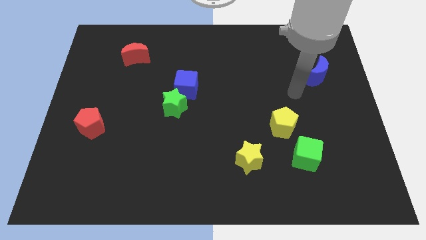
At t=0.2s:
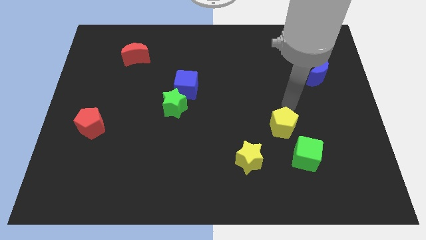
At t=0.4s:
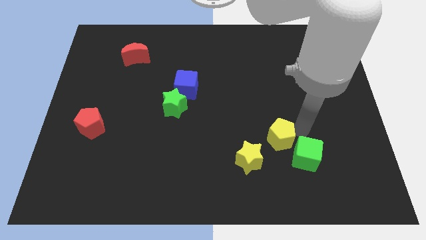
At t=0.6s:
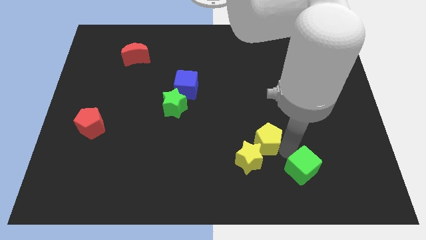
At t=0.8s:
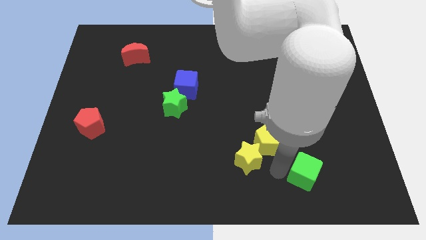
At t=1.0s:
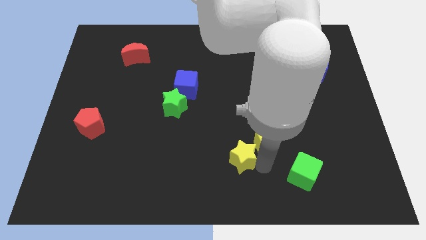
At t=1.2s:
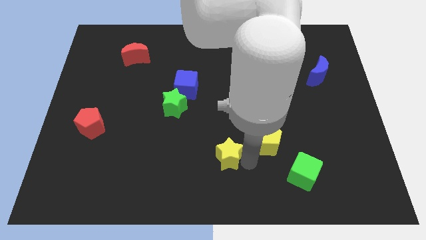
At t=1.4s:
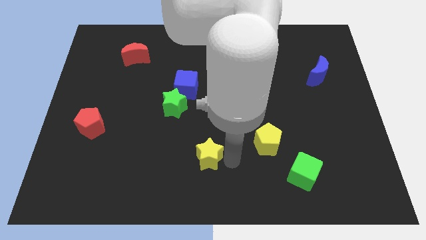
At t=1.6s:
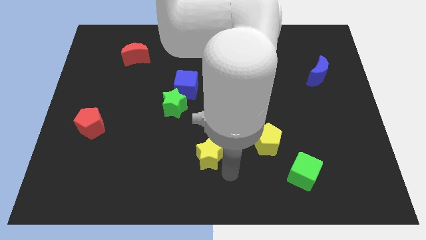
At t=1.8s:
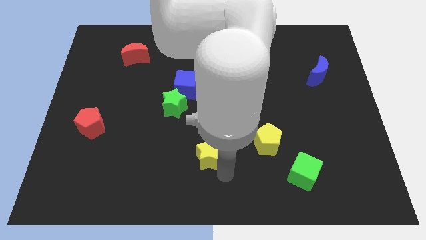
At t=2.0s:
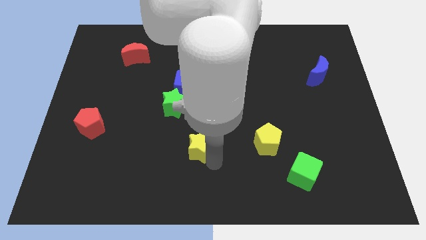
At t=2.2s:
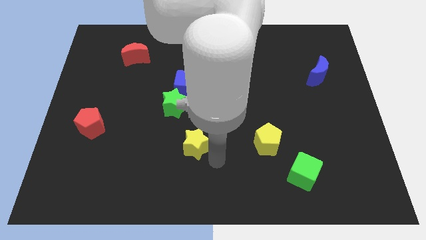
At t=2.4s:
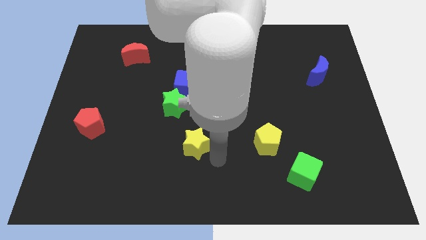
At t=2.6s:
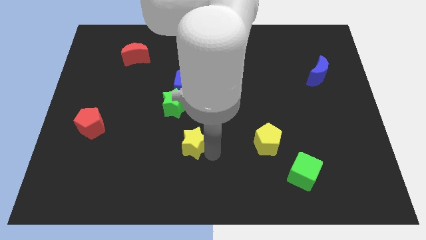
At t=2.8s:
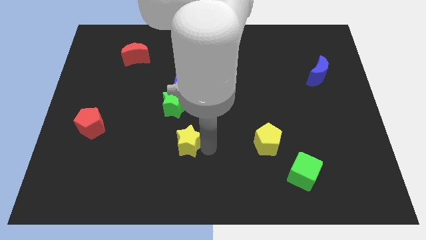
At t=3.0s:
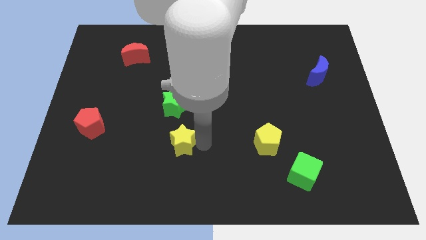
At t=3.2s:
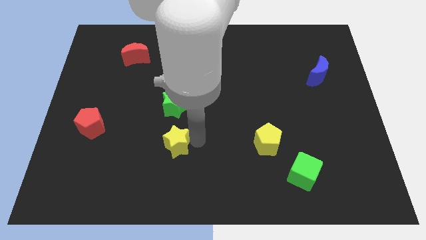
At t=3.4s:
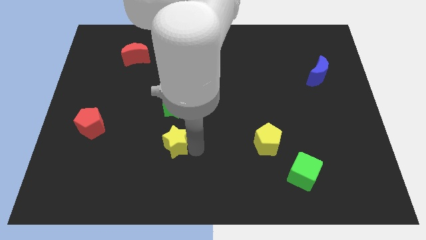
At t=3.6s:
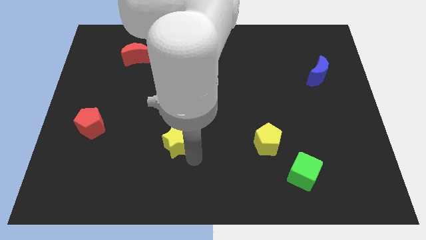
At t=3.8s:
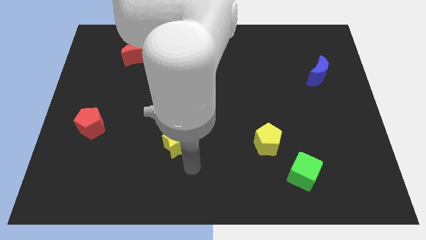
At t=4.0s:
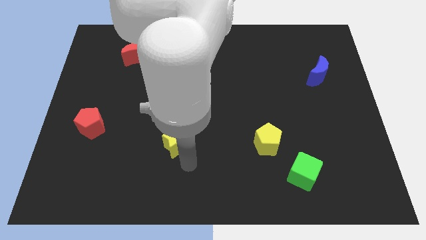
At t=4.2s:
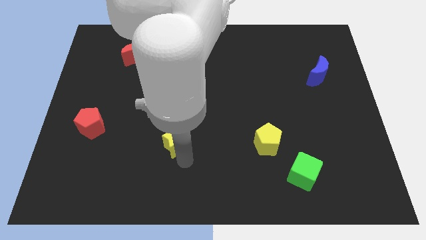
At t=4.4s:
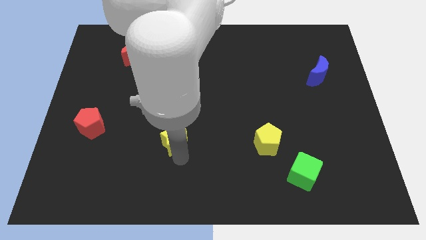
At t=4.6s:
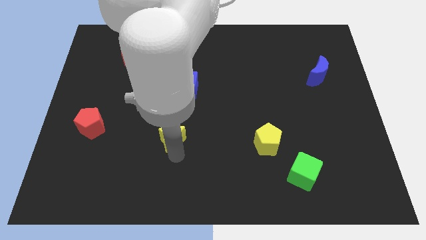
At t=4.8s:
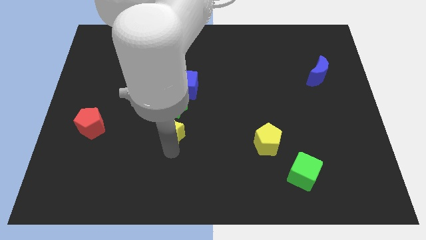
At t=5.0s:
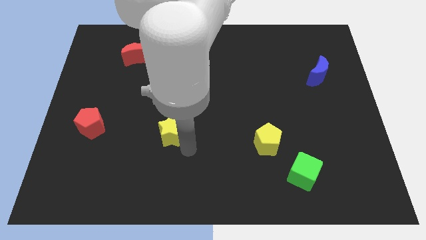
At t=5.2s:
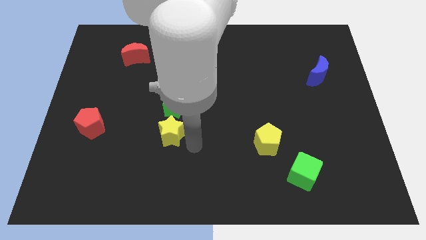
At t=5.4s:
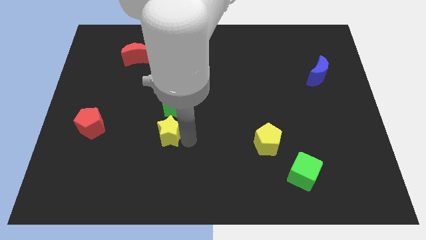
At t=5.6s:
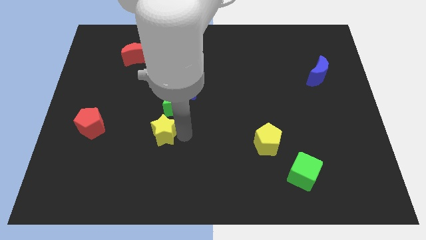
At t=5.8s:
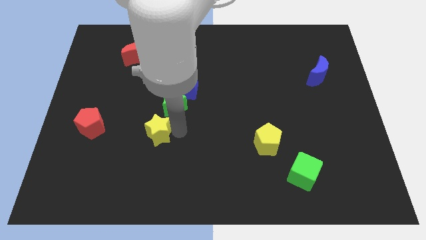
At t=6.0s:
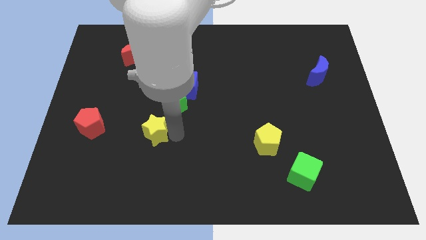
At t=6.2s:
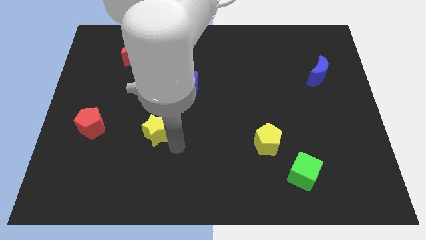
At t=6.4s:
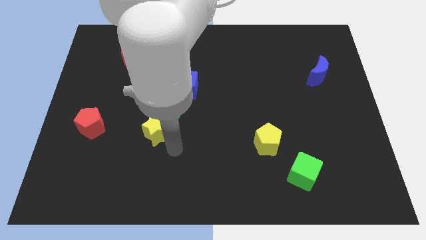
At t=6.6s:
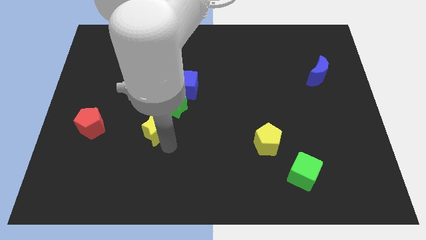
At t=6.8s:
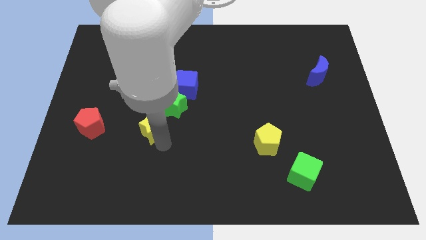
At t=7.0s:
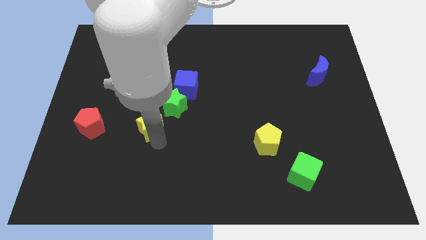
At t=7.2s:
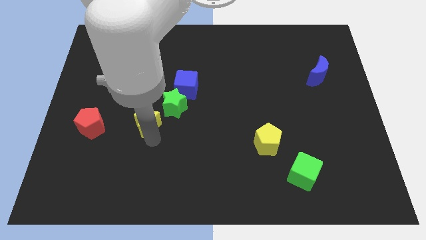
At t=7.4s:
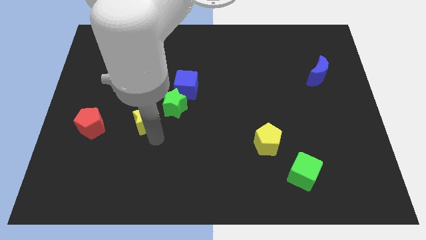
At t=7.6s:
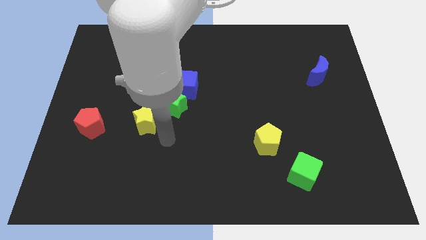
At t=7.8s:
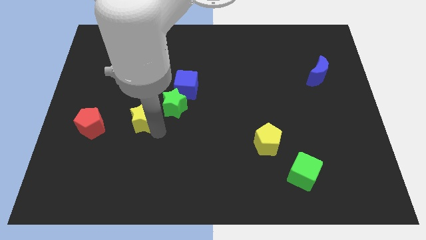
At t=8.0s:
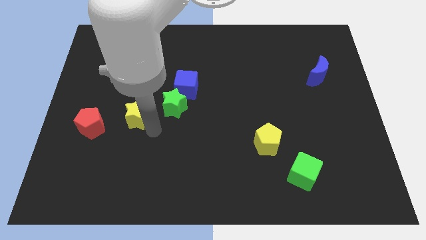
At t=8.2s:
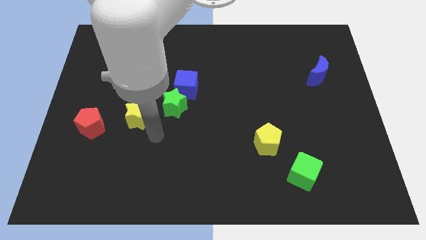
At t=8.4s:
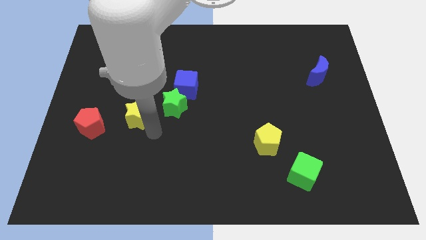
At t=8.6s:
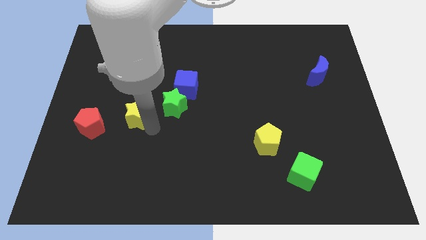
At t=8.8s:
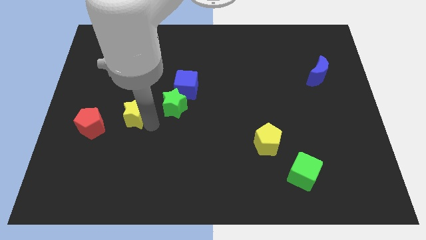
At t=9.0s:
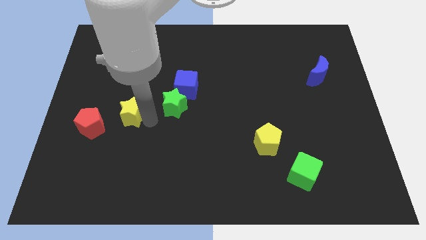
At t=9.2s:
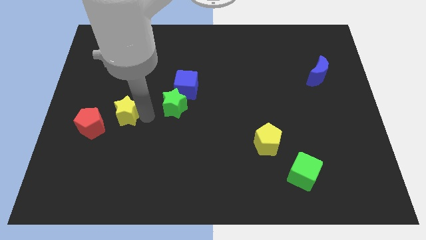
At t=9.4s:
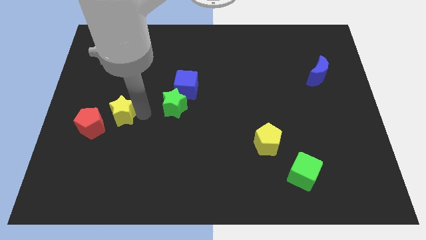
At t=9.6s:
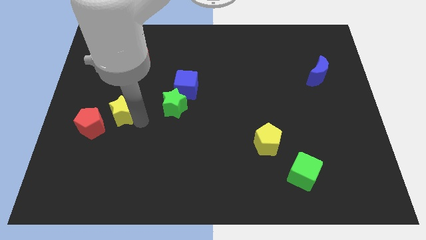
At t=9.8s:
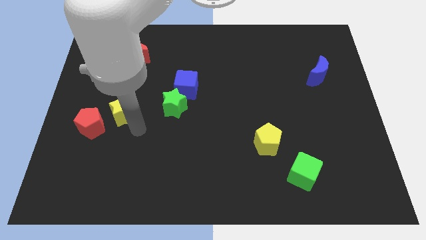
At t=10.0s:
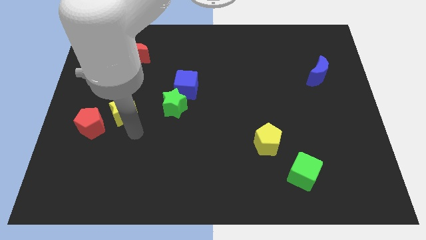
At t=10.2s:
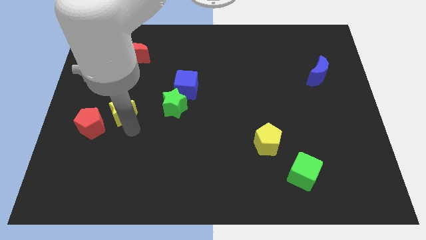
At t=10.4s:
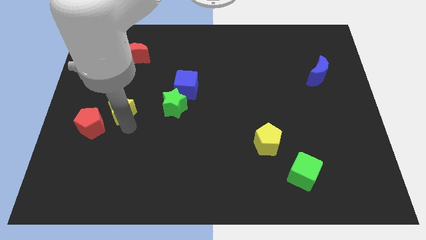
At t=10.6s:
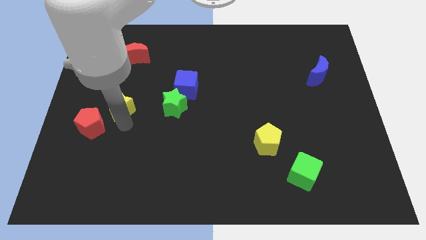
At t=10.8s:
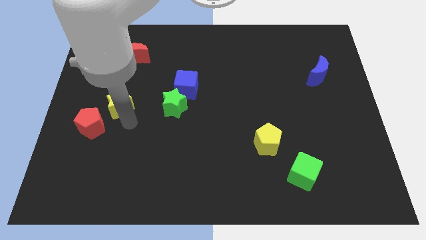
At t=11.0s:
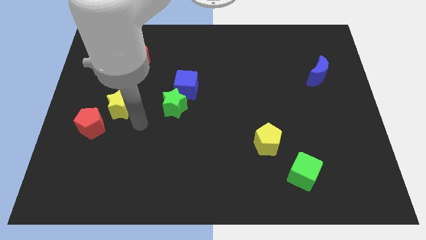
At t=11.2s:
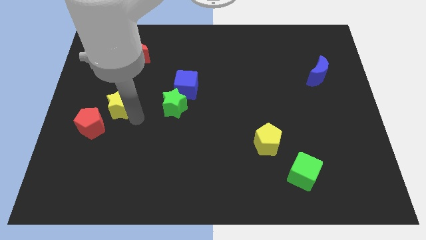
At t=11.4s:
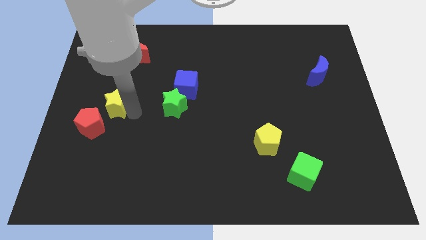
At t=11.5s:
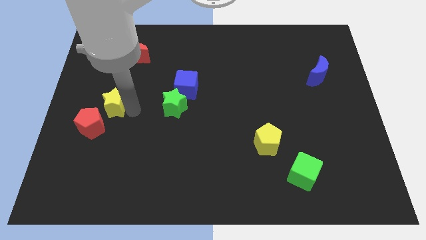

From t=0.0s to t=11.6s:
push the yellow star above the red pentagon

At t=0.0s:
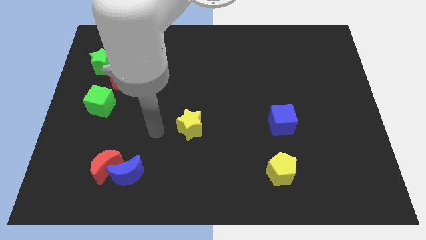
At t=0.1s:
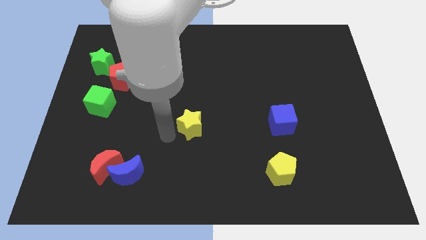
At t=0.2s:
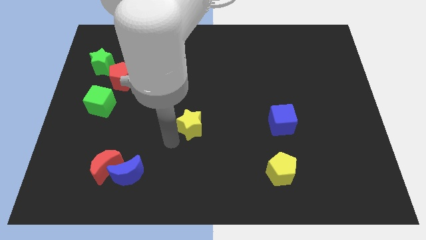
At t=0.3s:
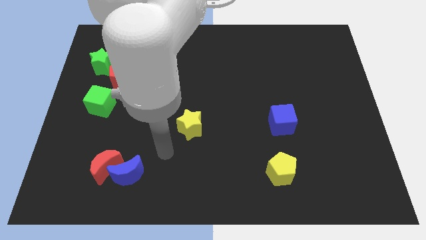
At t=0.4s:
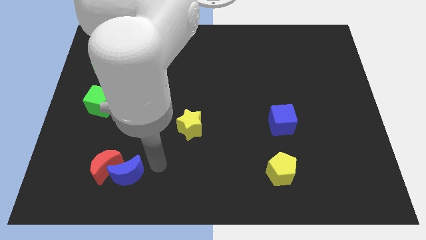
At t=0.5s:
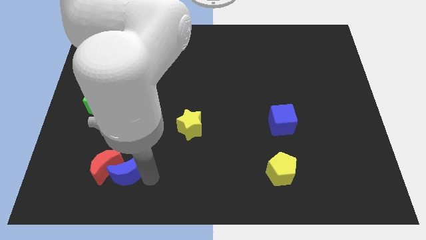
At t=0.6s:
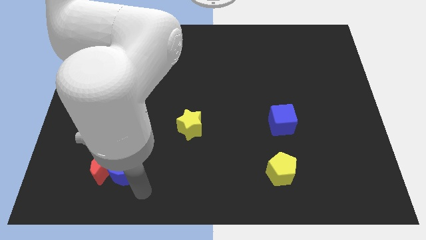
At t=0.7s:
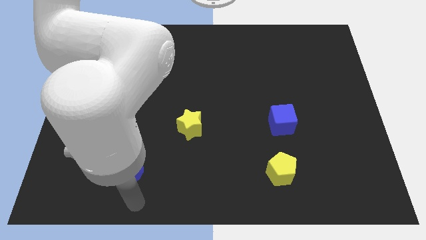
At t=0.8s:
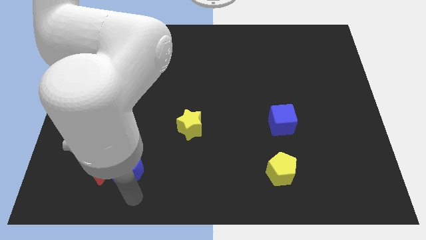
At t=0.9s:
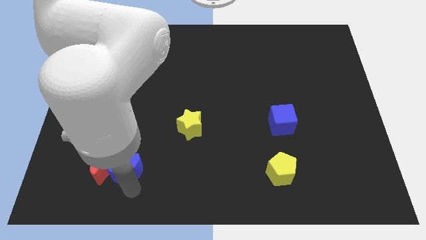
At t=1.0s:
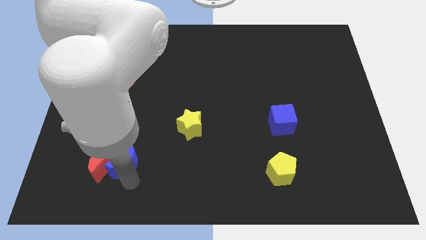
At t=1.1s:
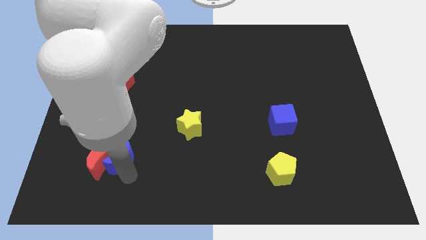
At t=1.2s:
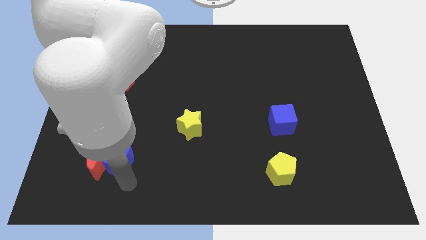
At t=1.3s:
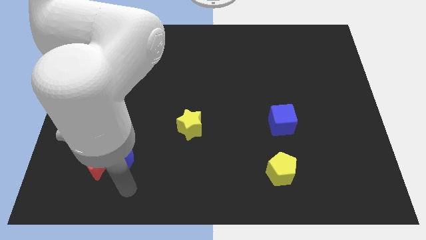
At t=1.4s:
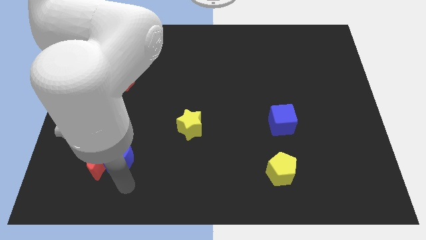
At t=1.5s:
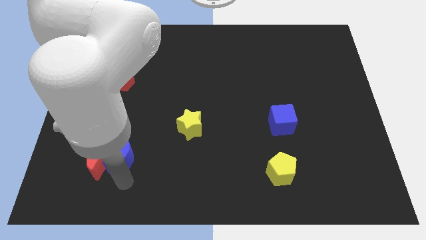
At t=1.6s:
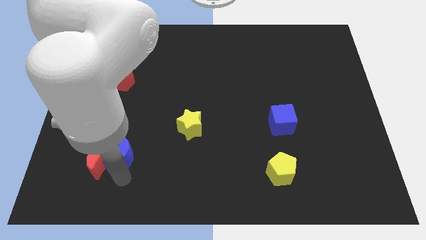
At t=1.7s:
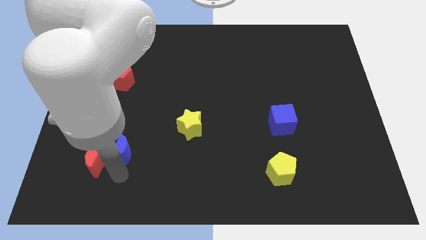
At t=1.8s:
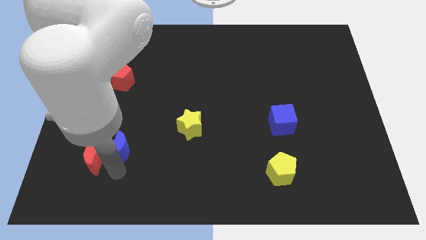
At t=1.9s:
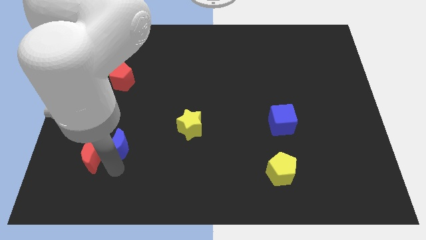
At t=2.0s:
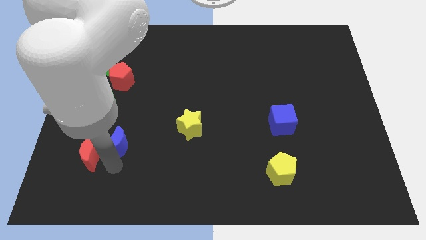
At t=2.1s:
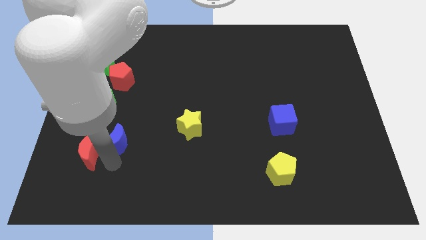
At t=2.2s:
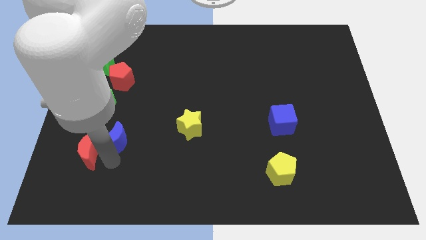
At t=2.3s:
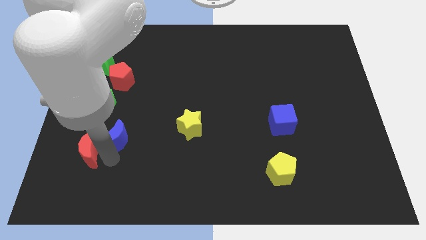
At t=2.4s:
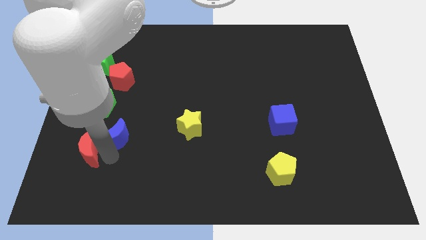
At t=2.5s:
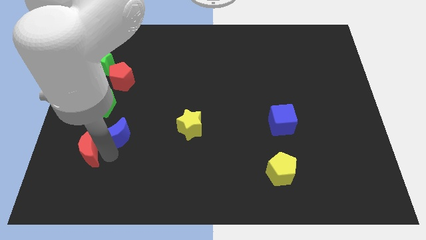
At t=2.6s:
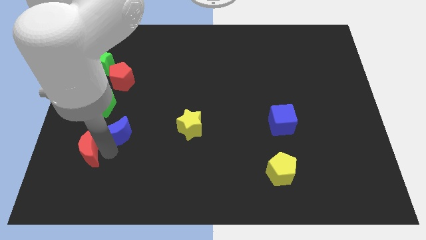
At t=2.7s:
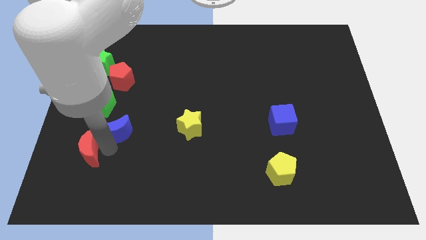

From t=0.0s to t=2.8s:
slide the blue moon below the red pentagon
